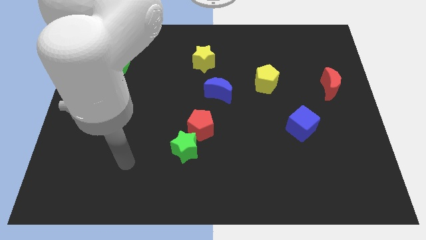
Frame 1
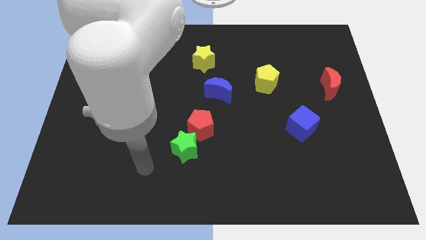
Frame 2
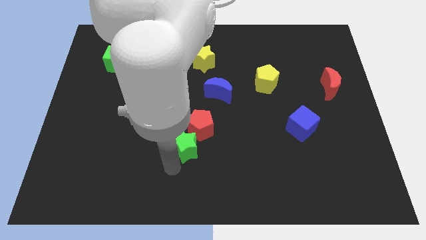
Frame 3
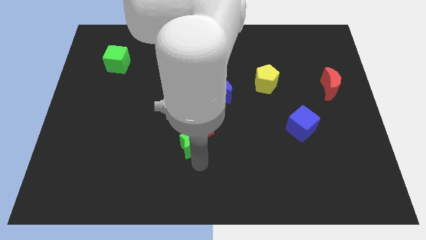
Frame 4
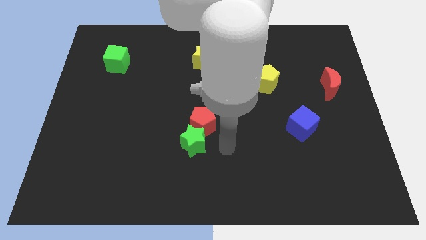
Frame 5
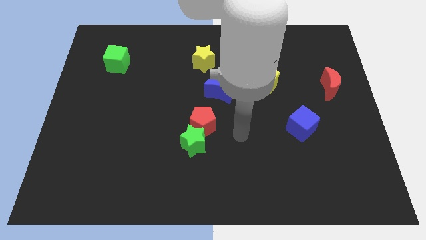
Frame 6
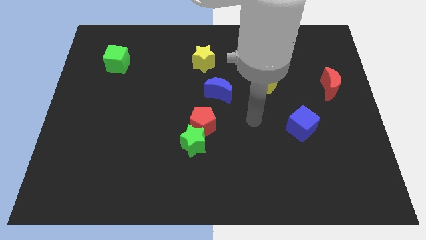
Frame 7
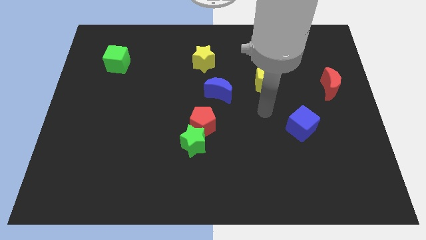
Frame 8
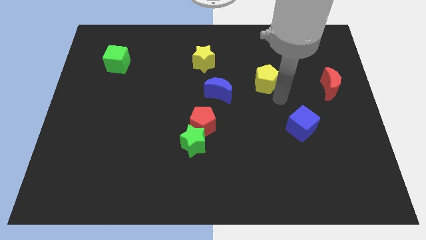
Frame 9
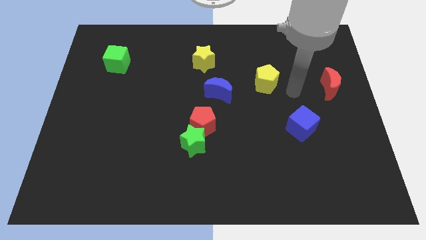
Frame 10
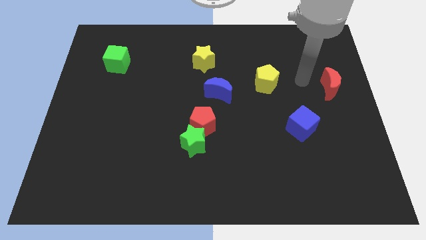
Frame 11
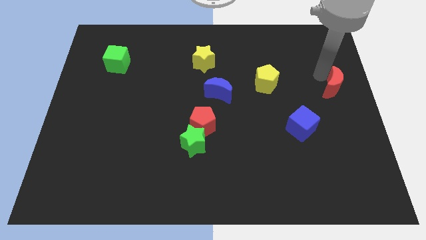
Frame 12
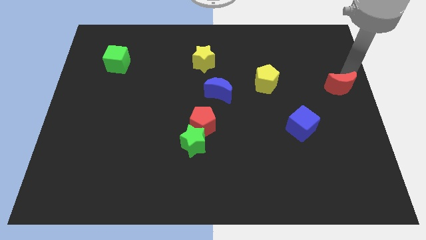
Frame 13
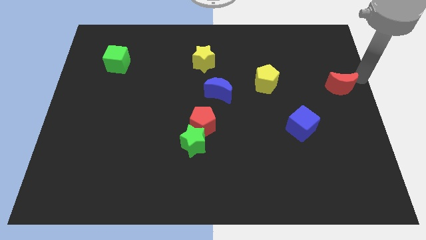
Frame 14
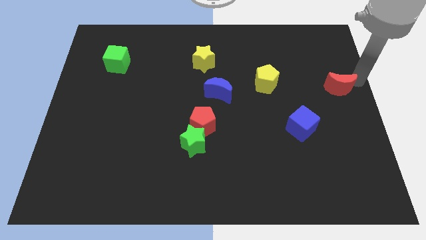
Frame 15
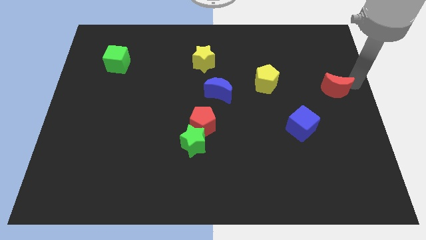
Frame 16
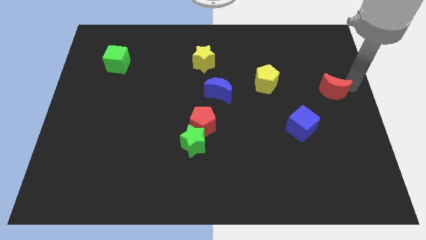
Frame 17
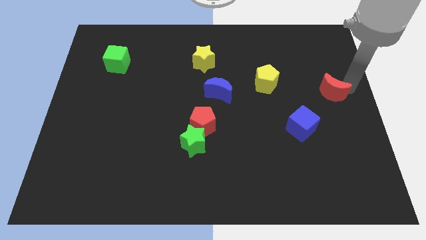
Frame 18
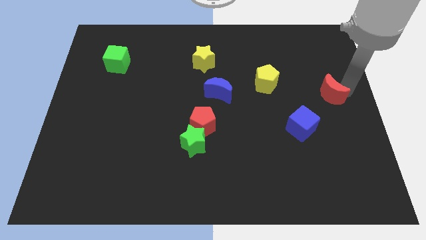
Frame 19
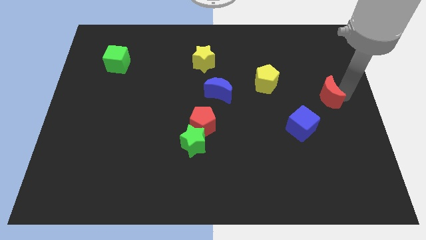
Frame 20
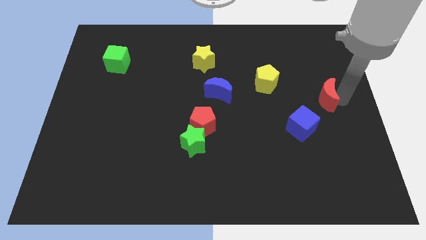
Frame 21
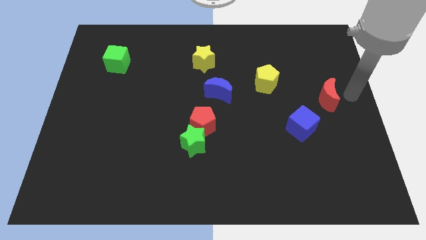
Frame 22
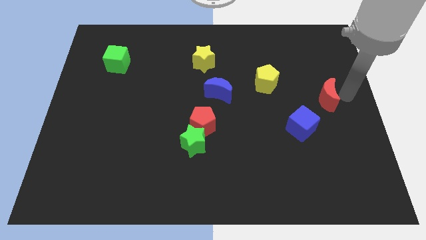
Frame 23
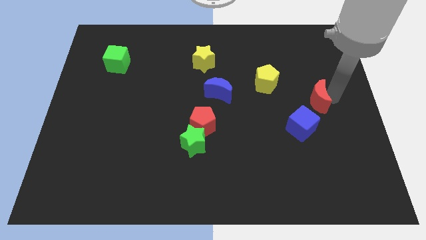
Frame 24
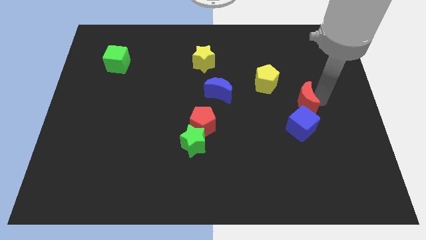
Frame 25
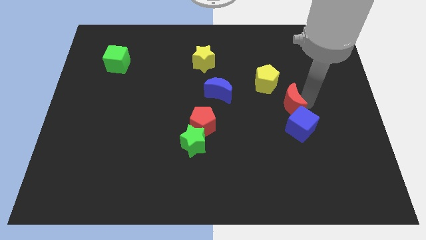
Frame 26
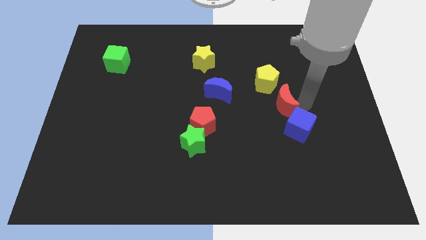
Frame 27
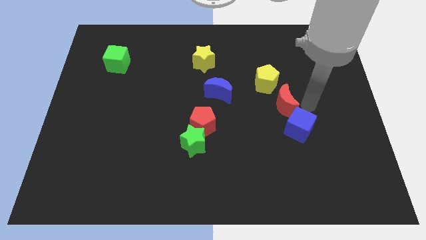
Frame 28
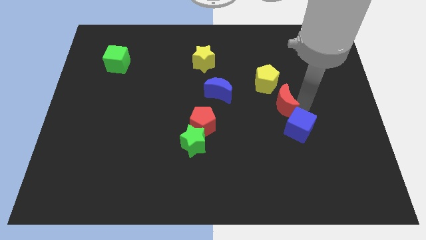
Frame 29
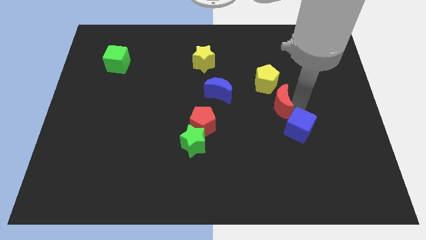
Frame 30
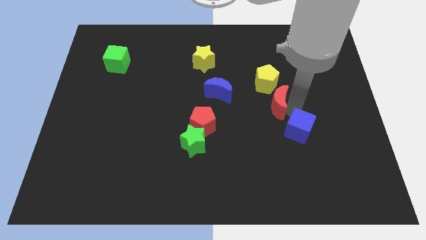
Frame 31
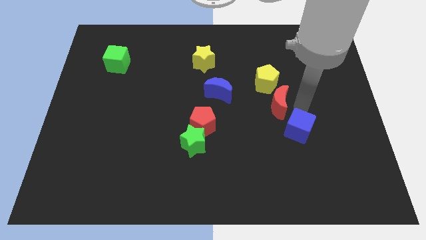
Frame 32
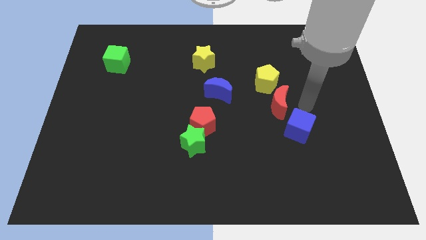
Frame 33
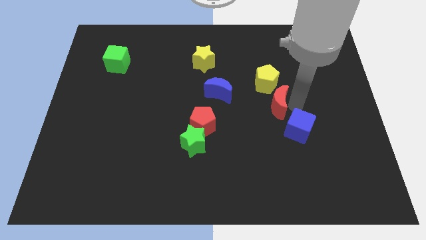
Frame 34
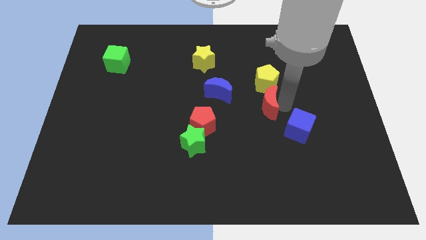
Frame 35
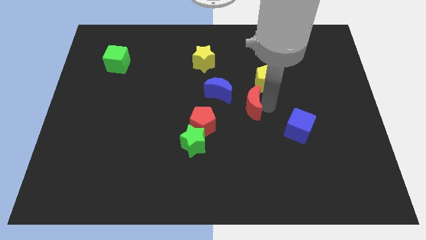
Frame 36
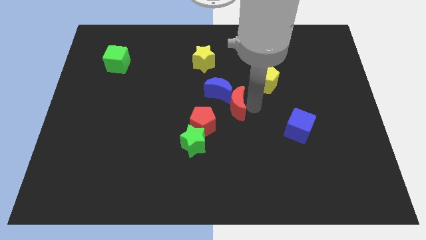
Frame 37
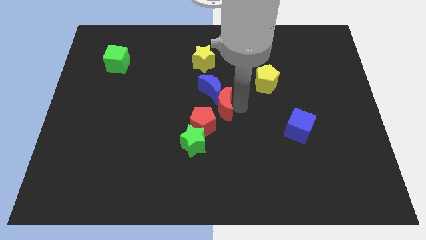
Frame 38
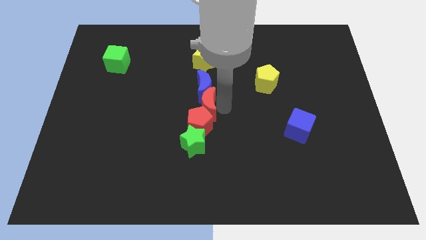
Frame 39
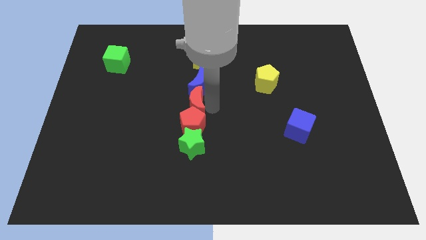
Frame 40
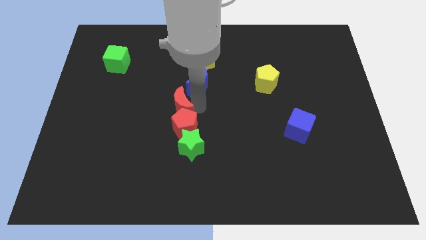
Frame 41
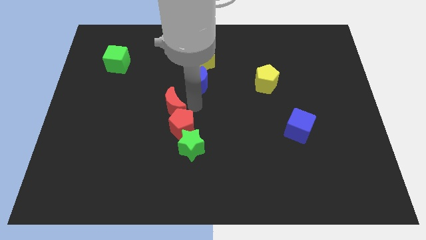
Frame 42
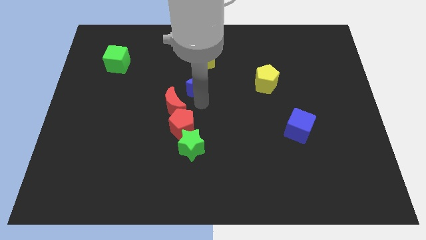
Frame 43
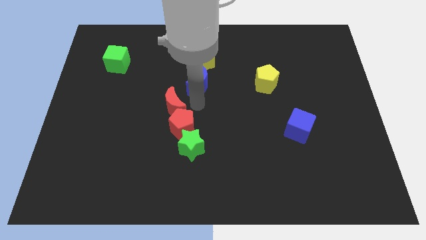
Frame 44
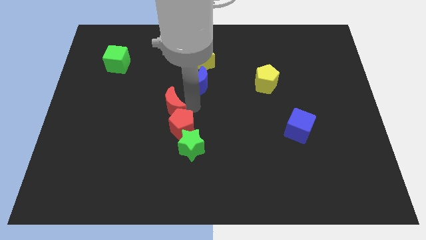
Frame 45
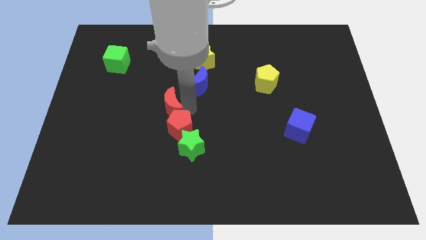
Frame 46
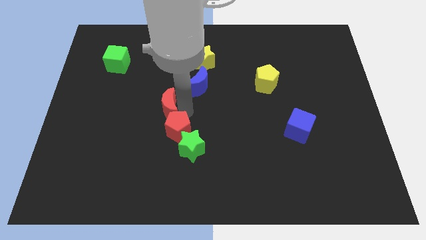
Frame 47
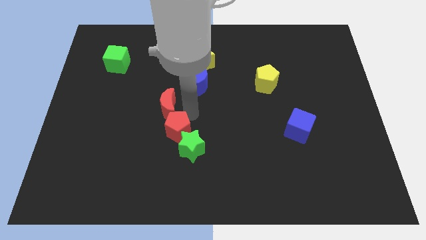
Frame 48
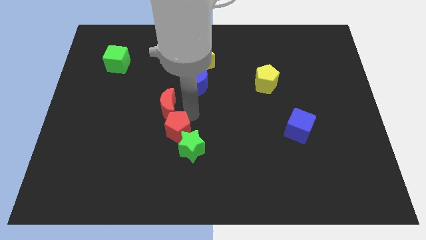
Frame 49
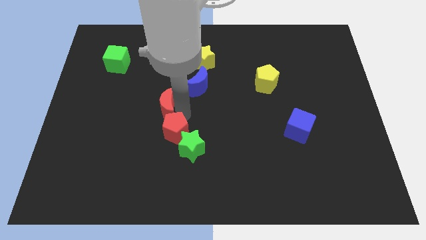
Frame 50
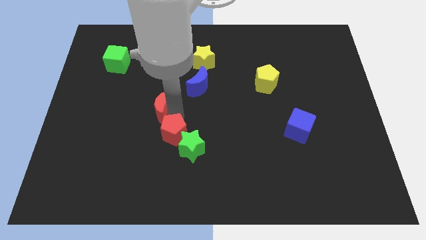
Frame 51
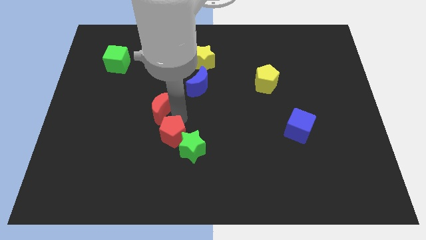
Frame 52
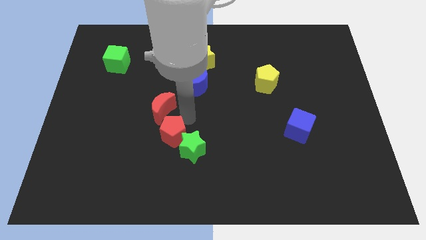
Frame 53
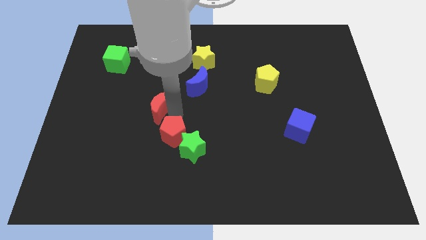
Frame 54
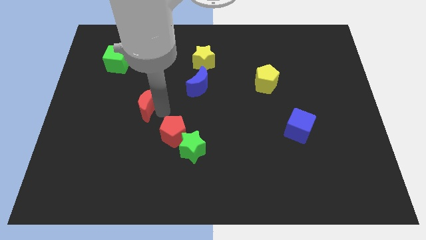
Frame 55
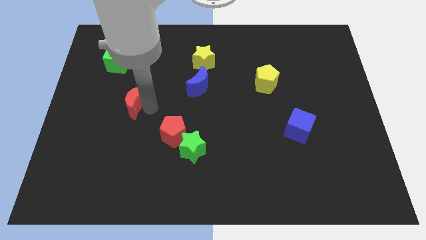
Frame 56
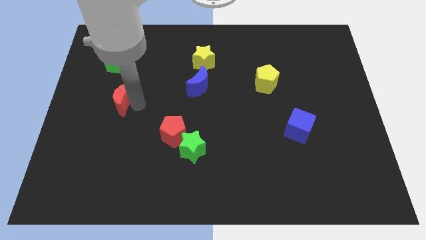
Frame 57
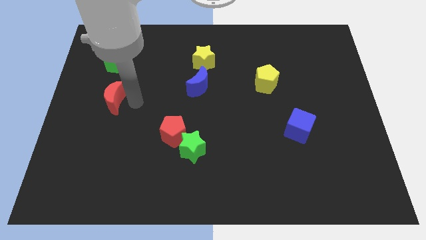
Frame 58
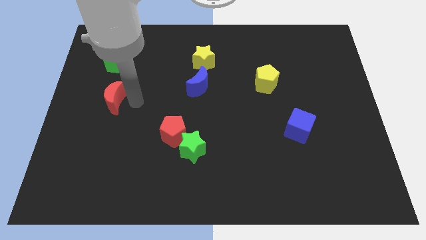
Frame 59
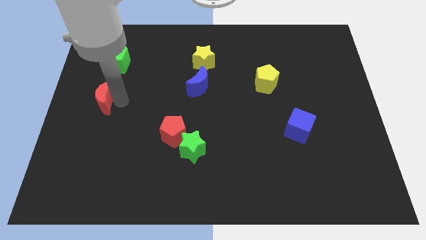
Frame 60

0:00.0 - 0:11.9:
move the red moon to the left side of the board

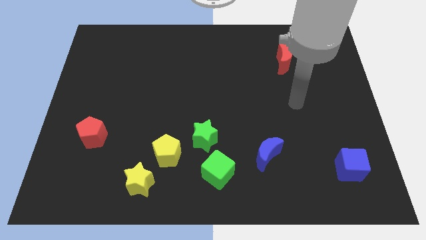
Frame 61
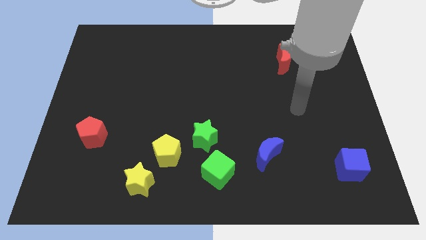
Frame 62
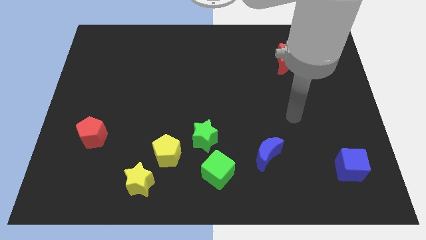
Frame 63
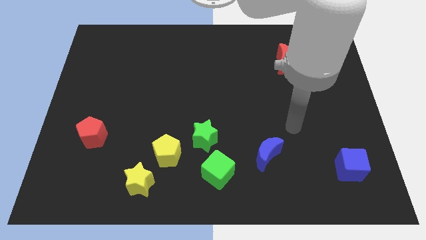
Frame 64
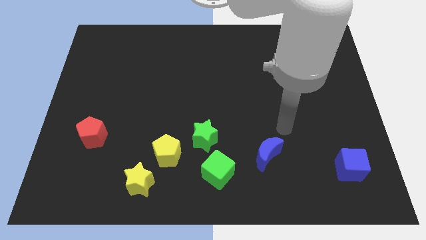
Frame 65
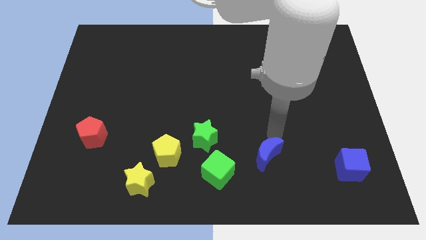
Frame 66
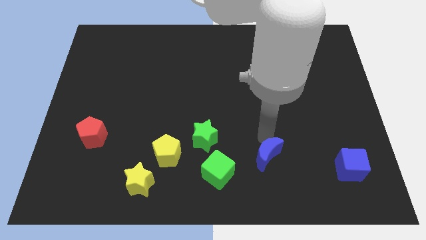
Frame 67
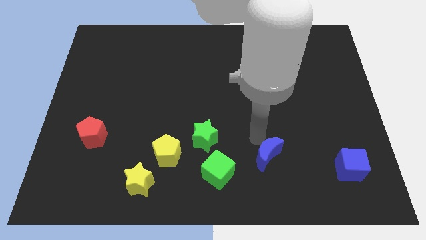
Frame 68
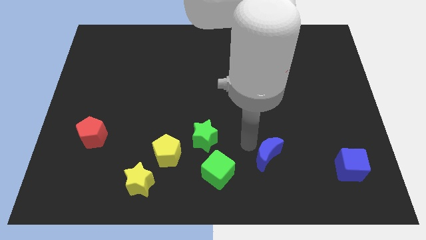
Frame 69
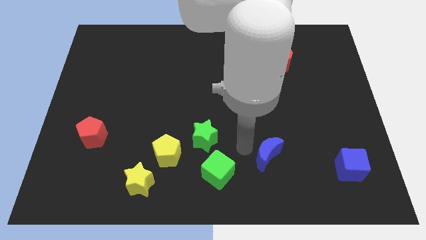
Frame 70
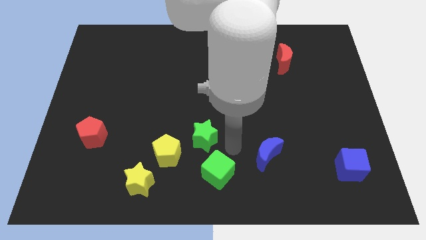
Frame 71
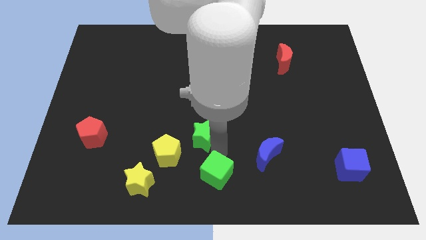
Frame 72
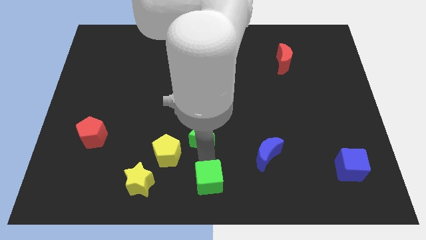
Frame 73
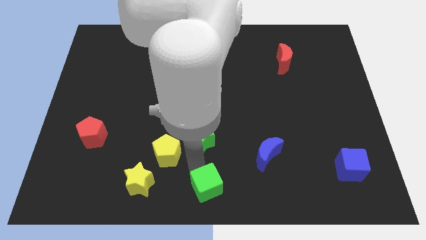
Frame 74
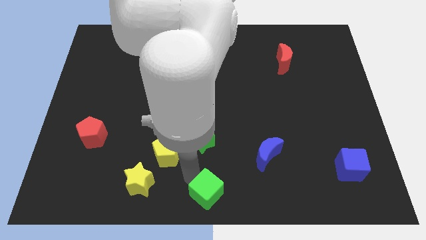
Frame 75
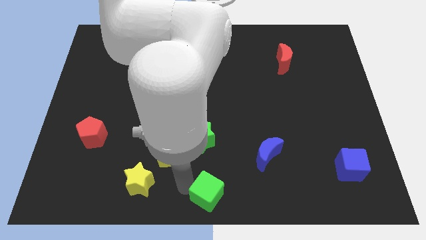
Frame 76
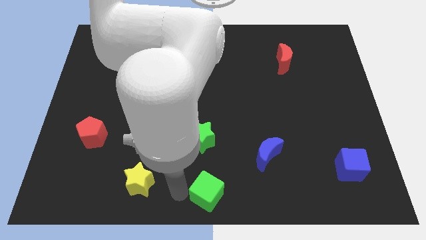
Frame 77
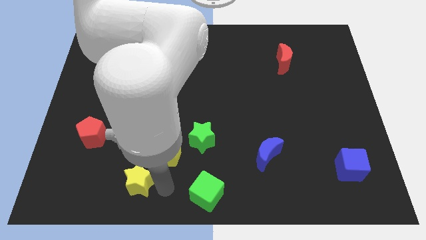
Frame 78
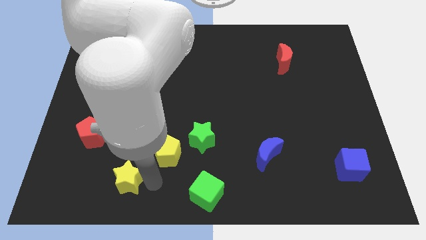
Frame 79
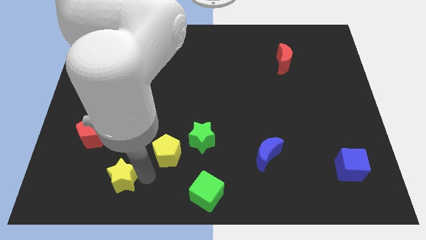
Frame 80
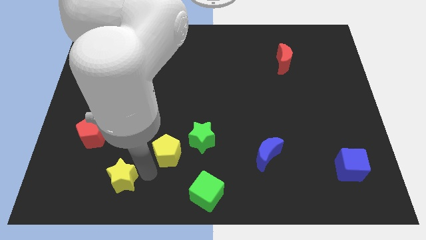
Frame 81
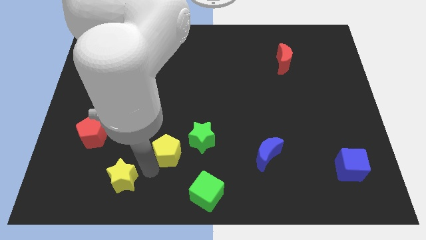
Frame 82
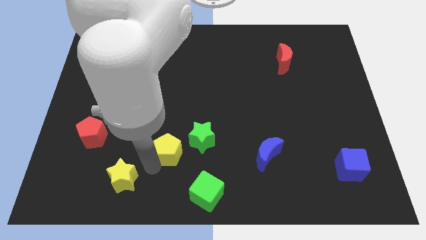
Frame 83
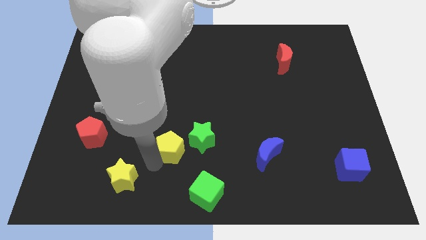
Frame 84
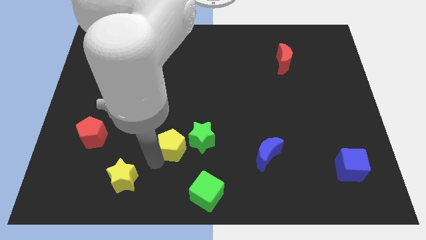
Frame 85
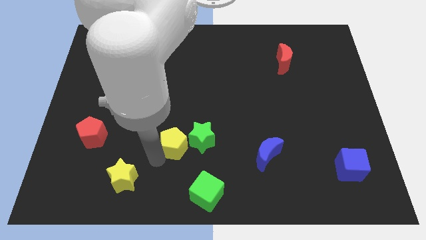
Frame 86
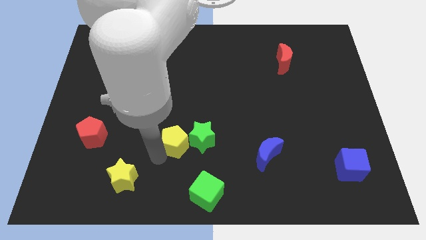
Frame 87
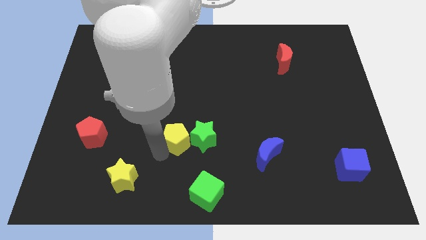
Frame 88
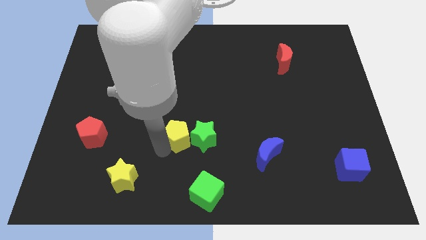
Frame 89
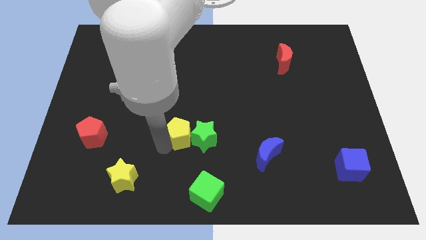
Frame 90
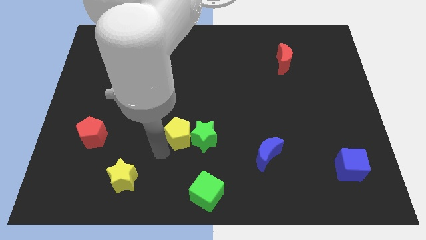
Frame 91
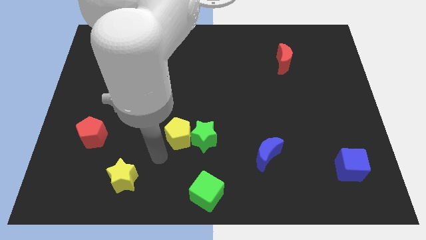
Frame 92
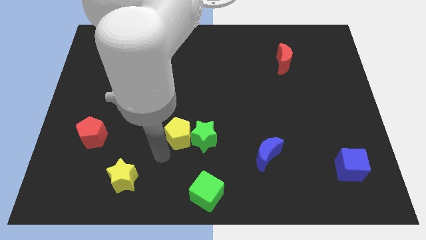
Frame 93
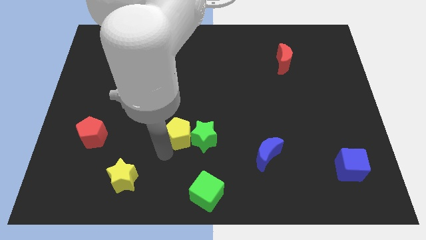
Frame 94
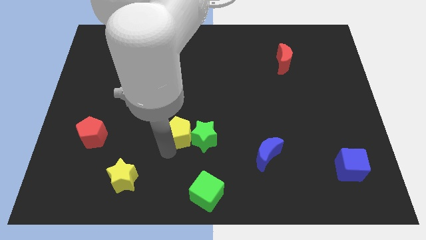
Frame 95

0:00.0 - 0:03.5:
put the yellow pentagon to the center of the board
